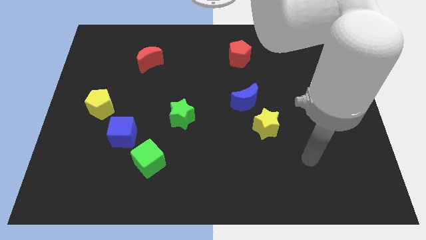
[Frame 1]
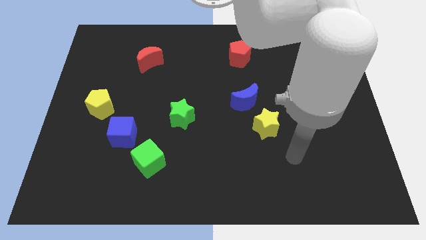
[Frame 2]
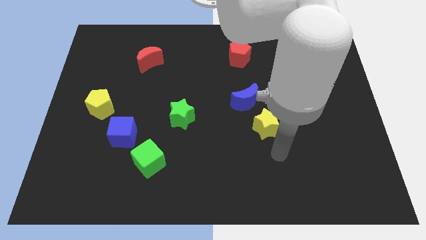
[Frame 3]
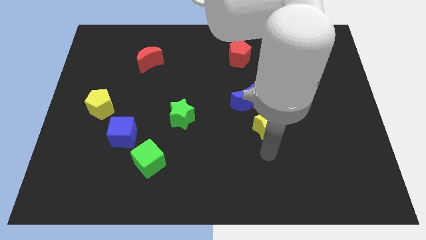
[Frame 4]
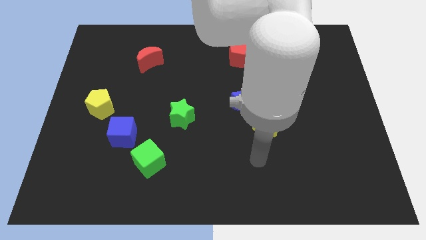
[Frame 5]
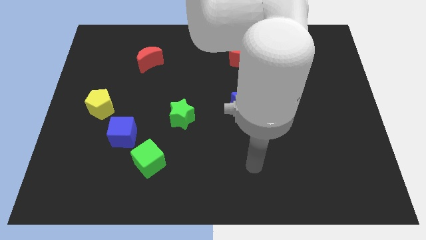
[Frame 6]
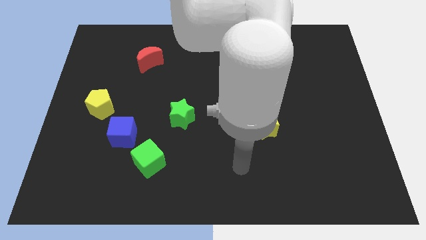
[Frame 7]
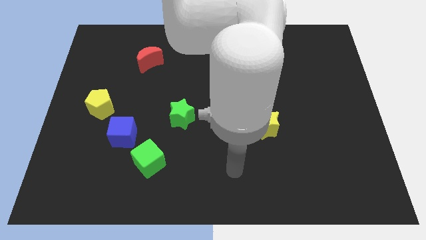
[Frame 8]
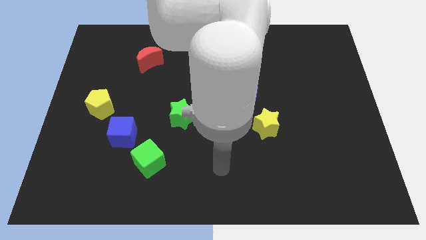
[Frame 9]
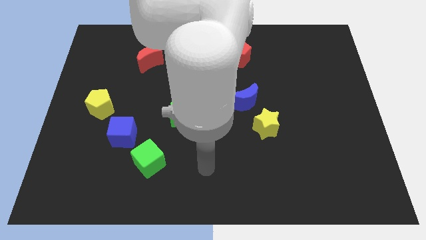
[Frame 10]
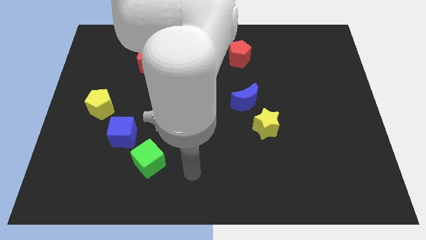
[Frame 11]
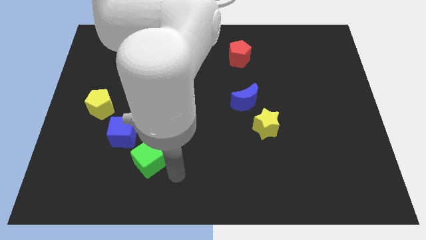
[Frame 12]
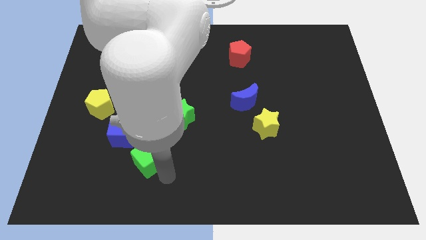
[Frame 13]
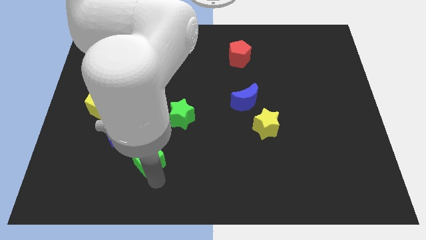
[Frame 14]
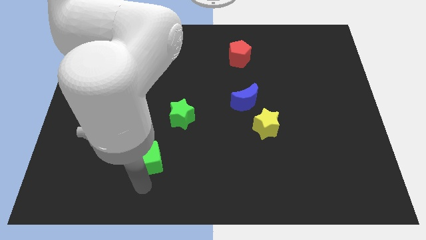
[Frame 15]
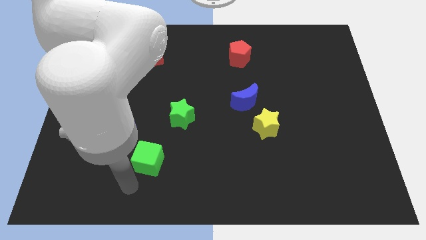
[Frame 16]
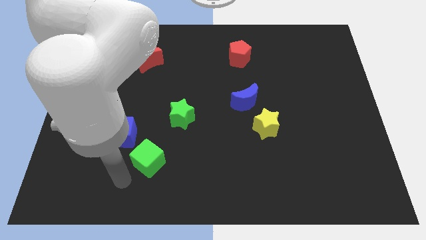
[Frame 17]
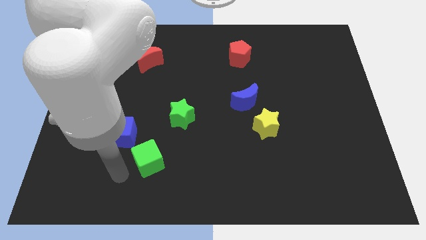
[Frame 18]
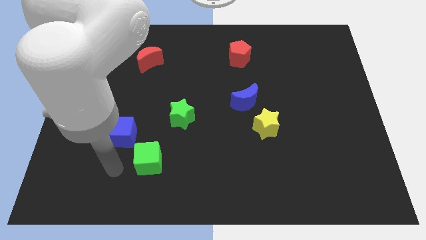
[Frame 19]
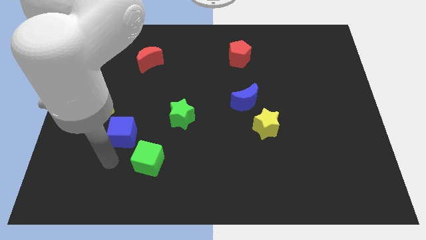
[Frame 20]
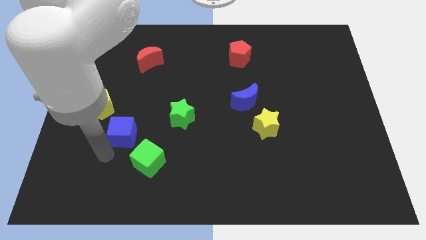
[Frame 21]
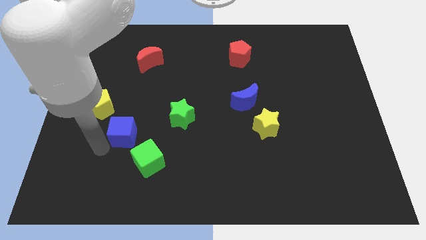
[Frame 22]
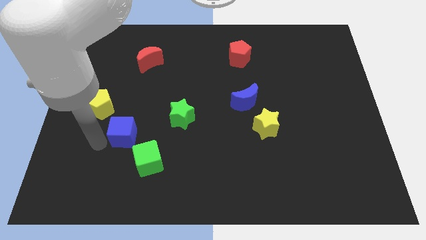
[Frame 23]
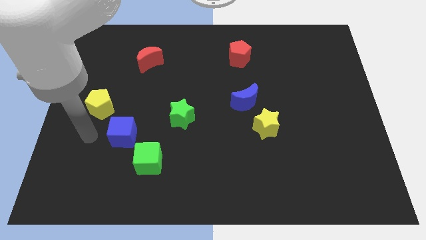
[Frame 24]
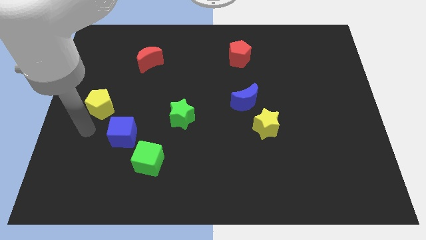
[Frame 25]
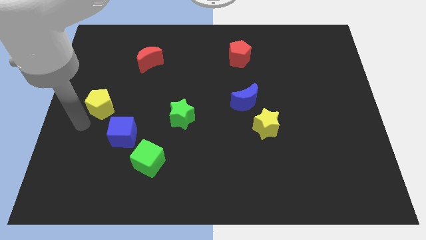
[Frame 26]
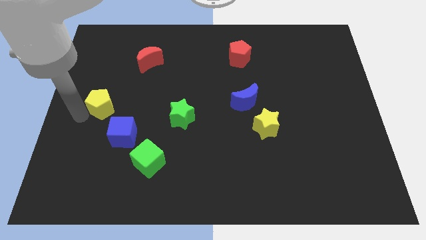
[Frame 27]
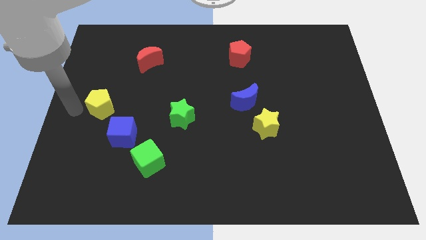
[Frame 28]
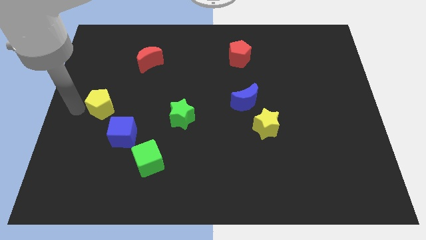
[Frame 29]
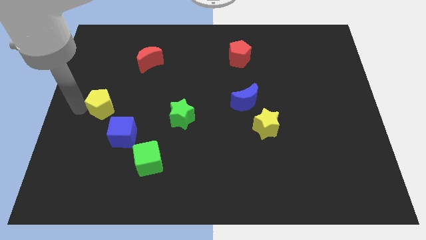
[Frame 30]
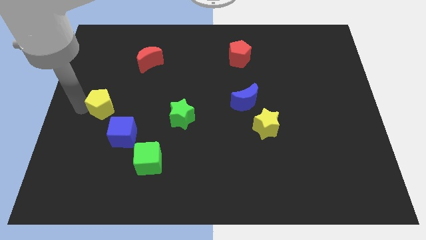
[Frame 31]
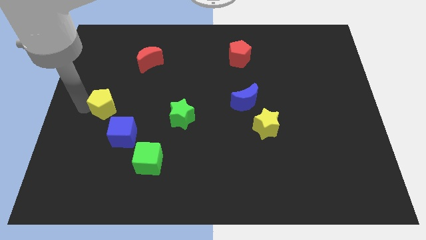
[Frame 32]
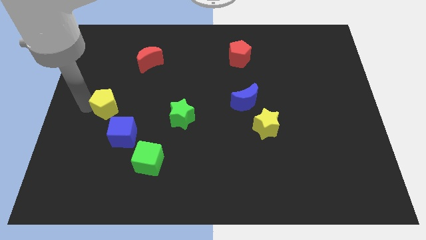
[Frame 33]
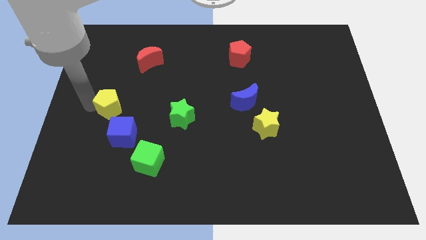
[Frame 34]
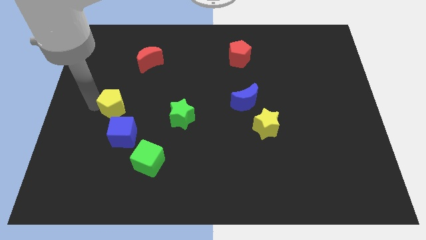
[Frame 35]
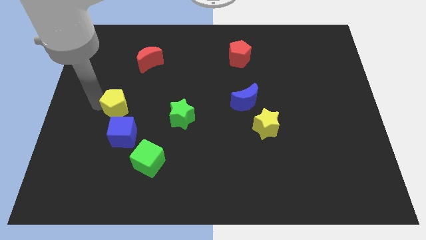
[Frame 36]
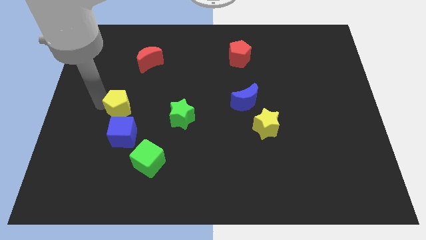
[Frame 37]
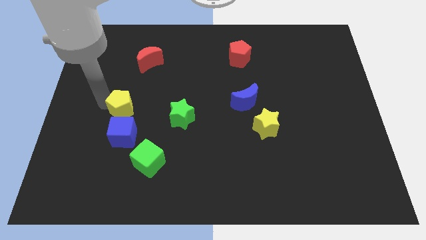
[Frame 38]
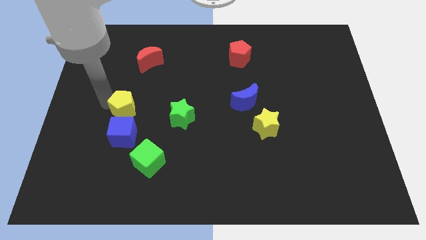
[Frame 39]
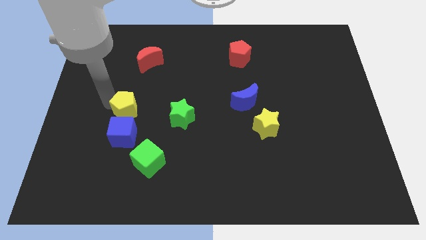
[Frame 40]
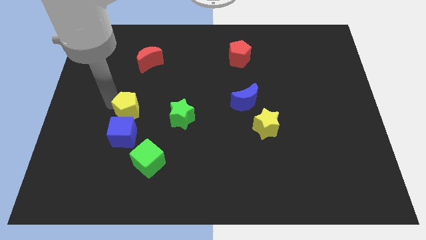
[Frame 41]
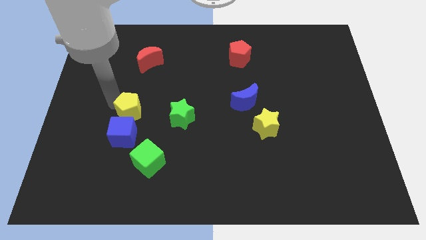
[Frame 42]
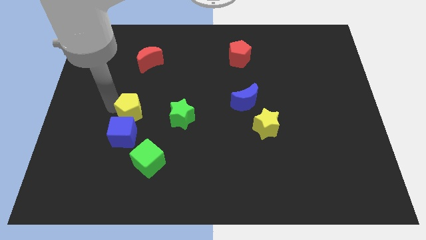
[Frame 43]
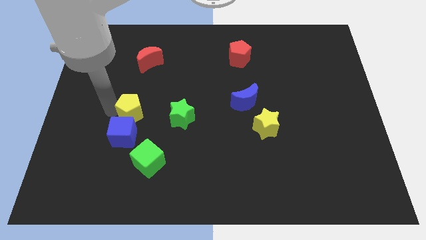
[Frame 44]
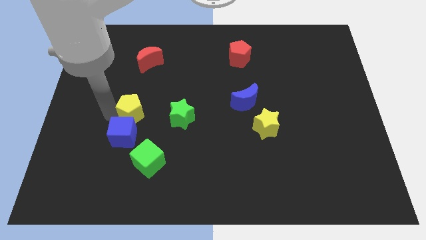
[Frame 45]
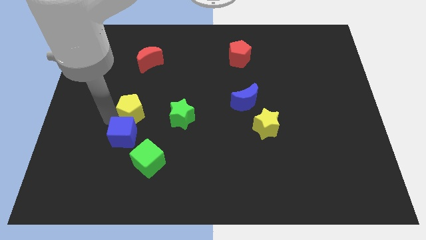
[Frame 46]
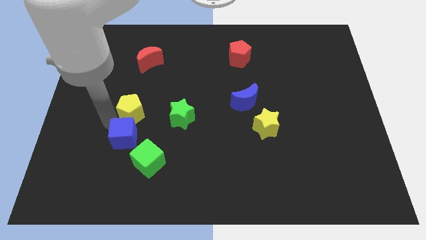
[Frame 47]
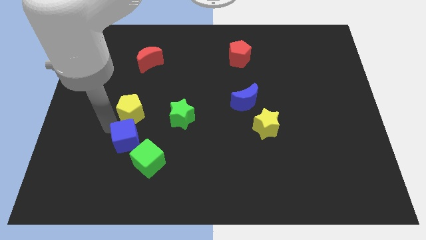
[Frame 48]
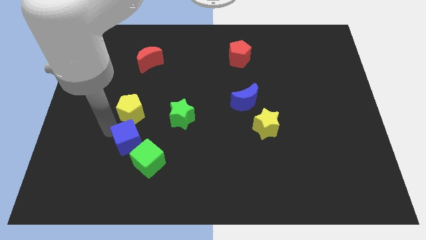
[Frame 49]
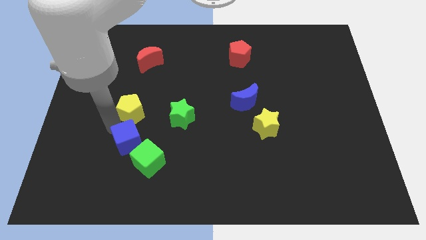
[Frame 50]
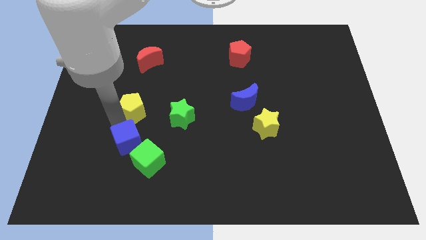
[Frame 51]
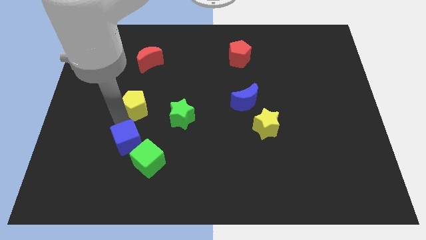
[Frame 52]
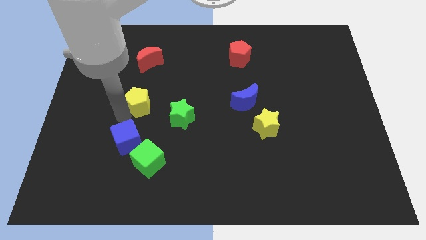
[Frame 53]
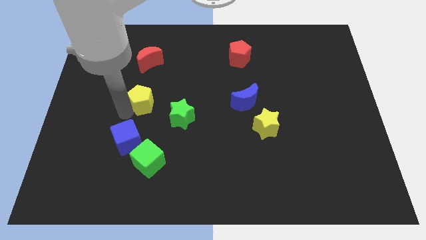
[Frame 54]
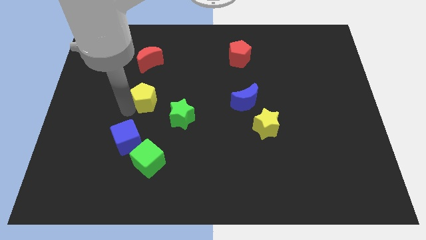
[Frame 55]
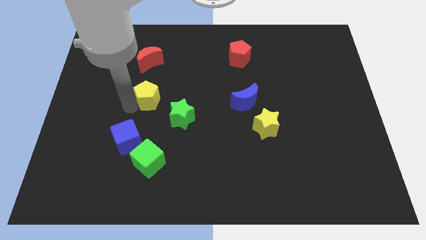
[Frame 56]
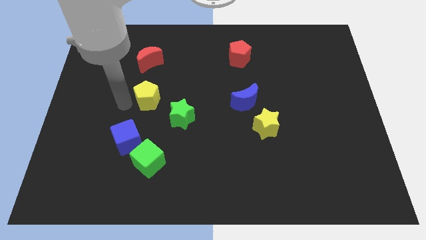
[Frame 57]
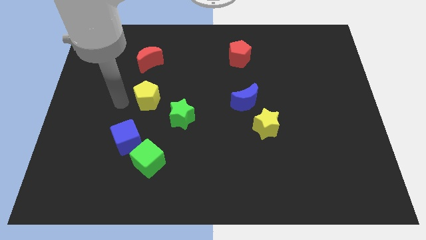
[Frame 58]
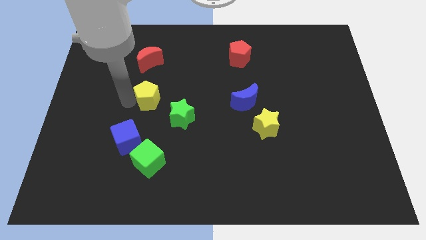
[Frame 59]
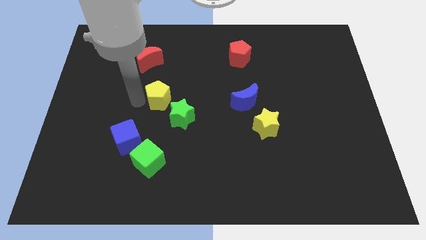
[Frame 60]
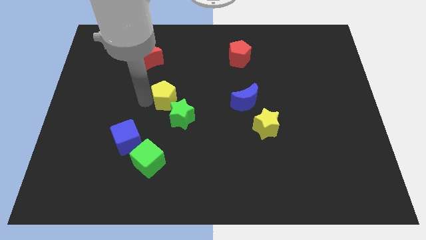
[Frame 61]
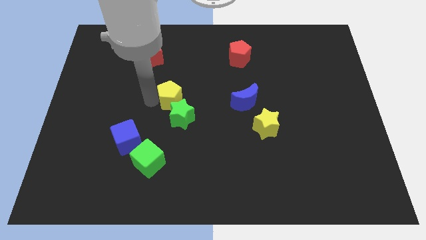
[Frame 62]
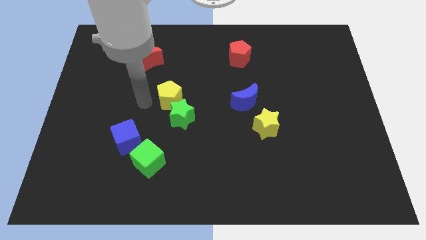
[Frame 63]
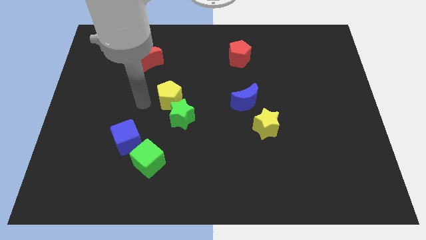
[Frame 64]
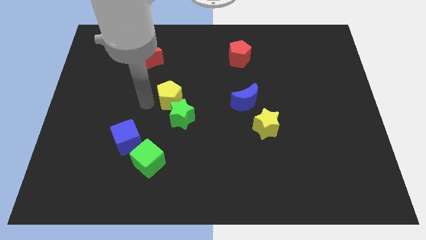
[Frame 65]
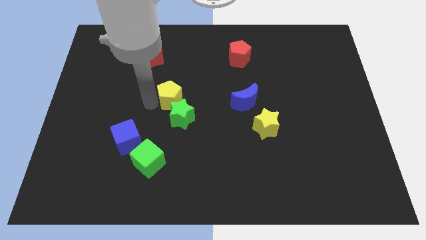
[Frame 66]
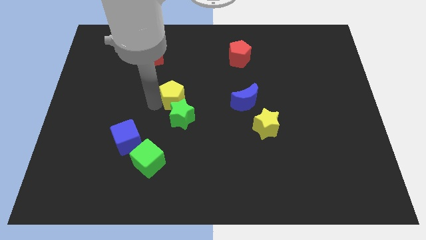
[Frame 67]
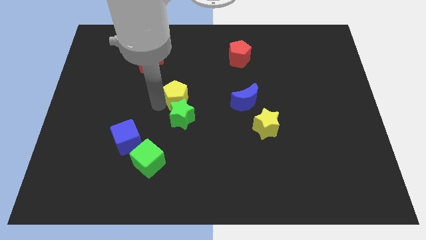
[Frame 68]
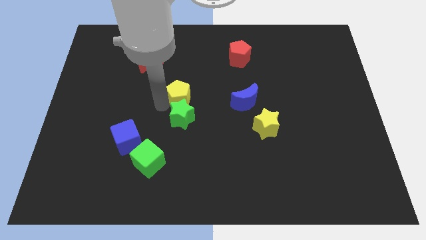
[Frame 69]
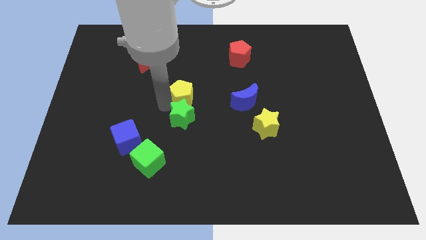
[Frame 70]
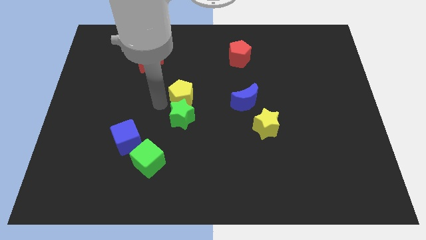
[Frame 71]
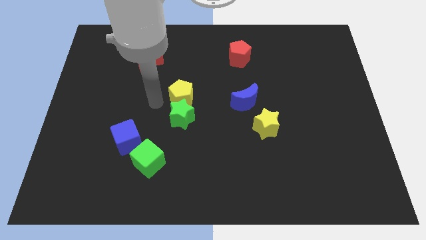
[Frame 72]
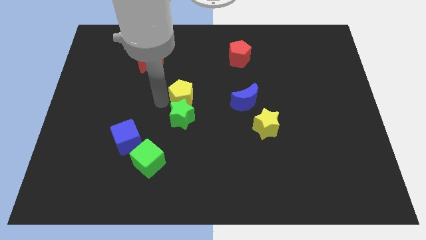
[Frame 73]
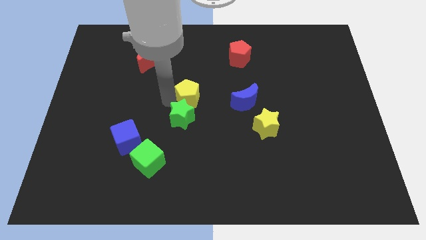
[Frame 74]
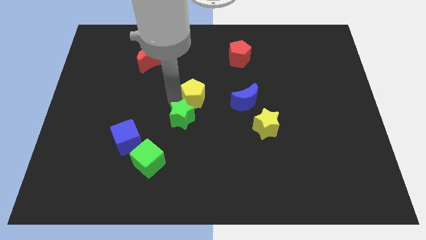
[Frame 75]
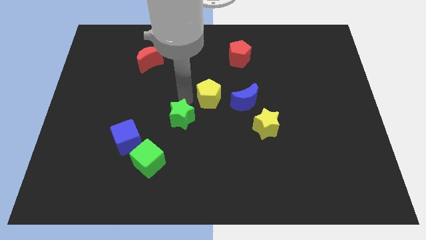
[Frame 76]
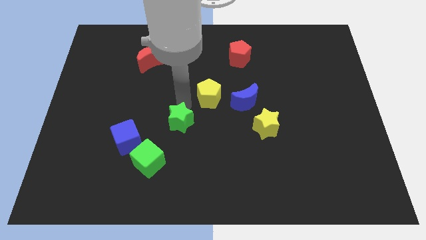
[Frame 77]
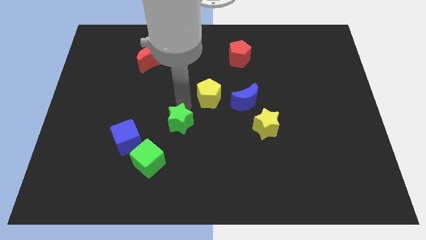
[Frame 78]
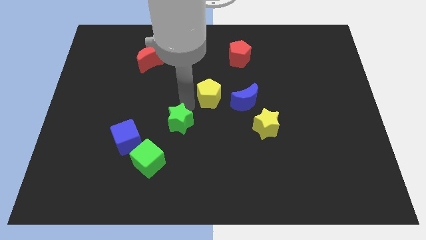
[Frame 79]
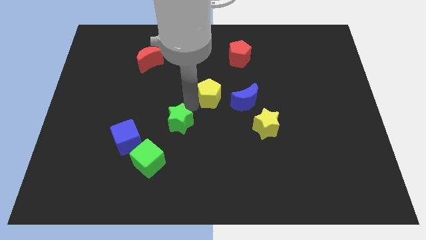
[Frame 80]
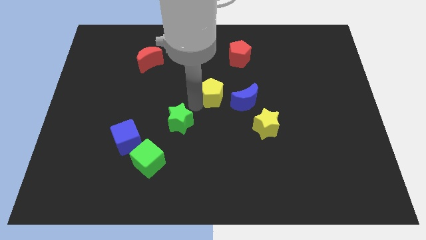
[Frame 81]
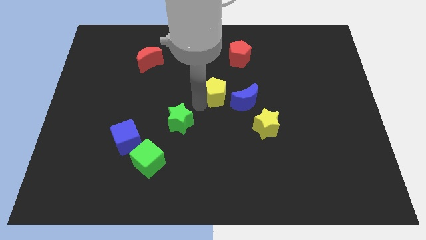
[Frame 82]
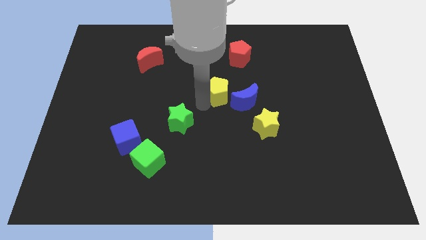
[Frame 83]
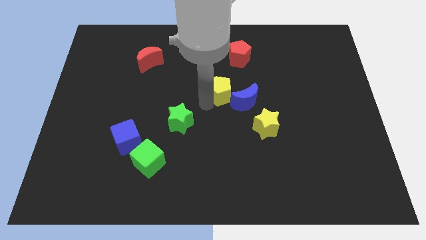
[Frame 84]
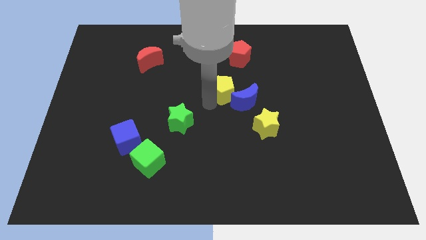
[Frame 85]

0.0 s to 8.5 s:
put the yellow pentagon to the bottom of the red pentagon
